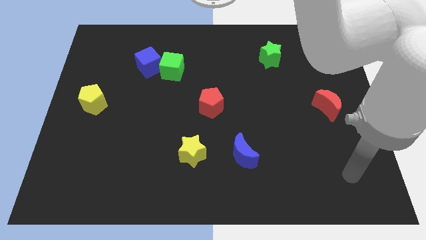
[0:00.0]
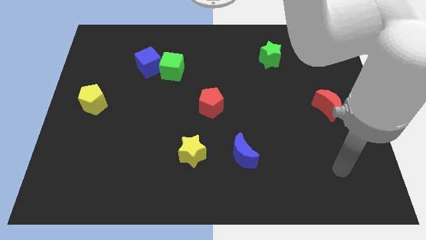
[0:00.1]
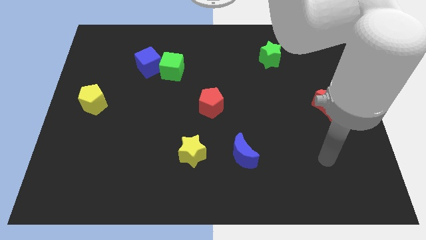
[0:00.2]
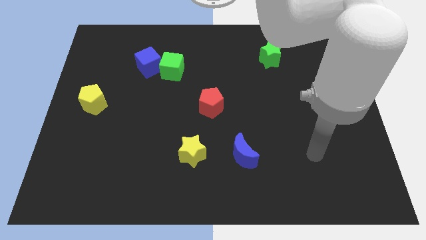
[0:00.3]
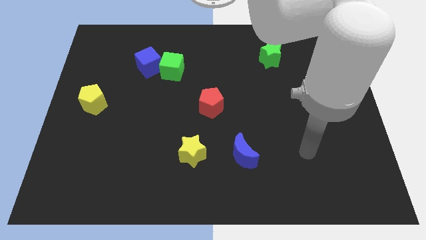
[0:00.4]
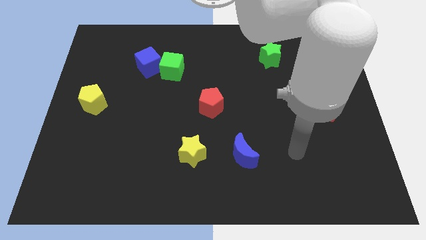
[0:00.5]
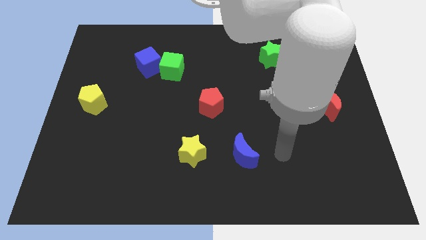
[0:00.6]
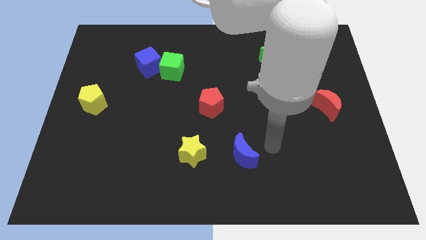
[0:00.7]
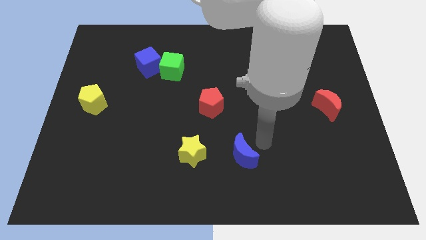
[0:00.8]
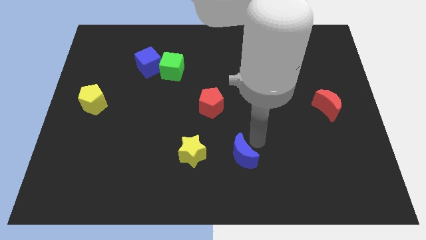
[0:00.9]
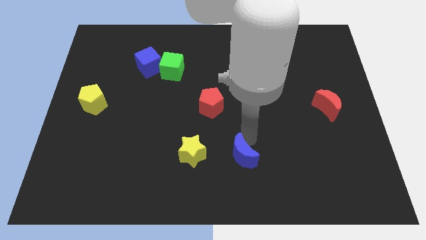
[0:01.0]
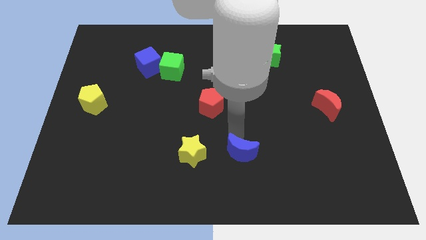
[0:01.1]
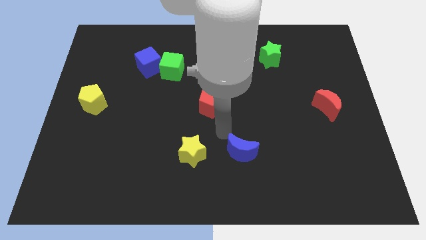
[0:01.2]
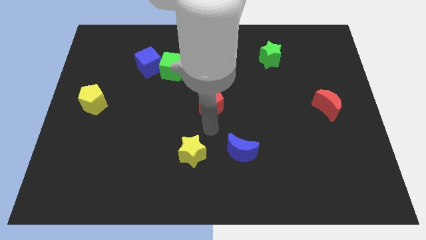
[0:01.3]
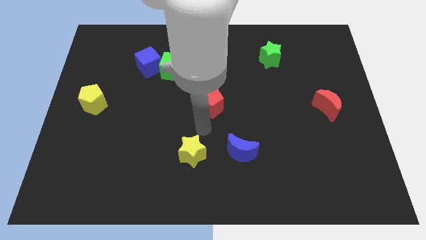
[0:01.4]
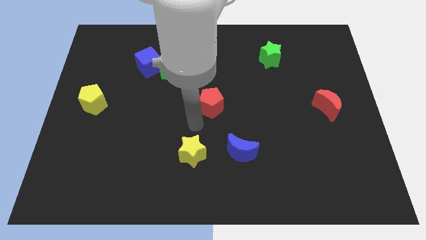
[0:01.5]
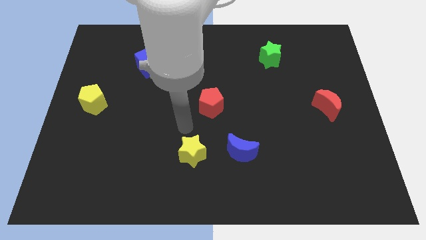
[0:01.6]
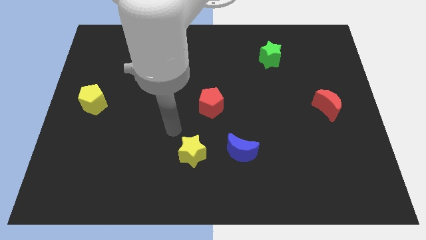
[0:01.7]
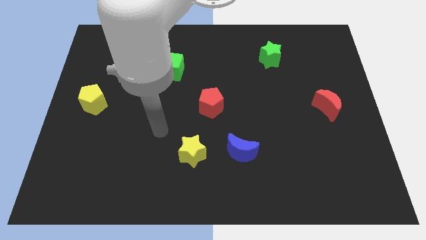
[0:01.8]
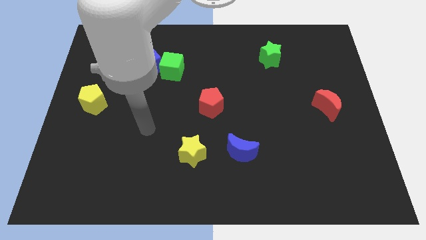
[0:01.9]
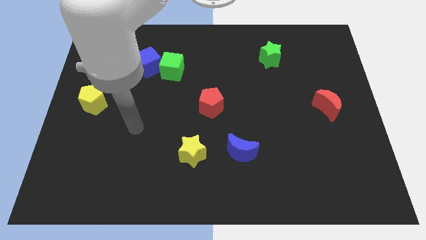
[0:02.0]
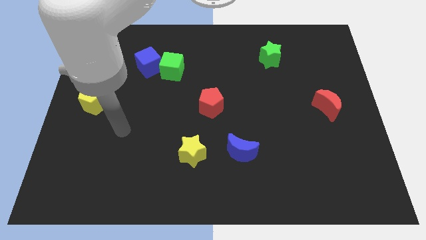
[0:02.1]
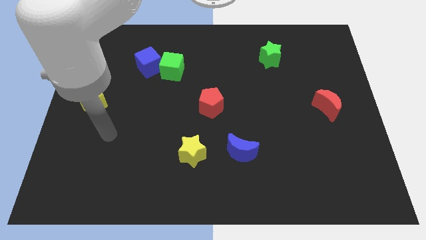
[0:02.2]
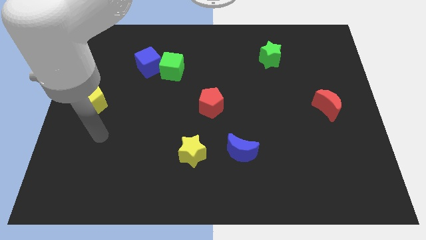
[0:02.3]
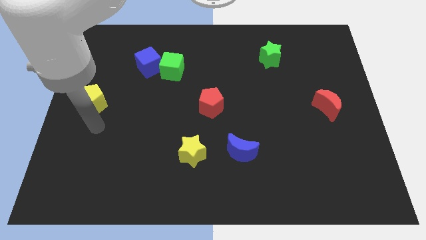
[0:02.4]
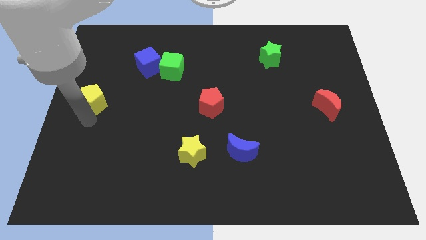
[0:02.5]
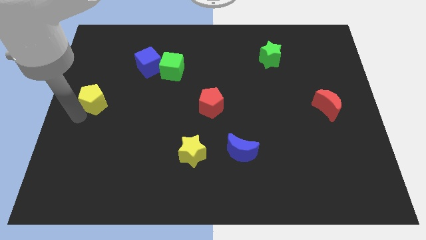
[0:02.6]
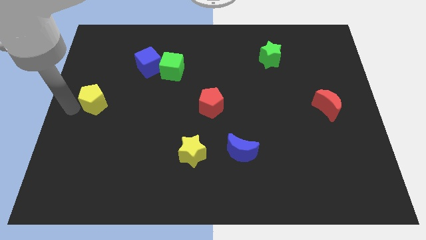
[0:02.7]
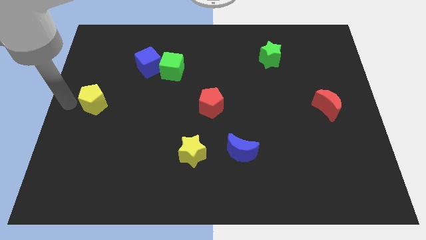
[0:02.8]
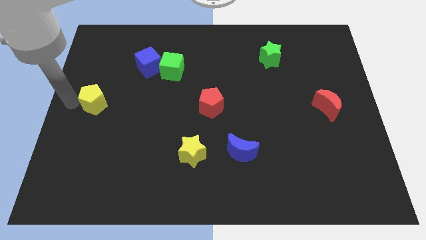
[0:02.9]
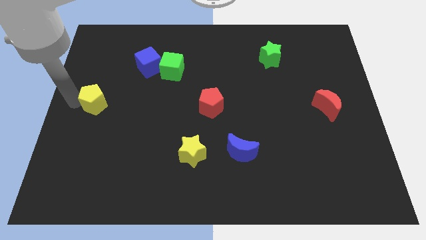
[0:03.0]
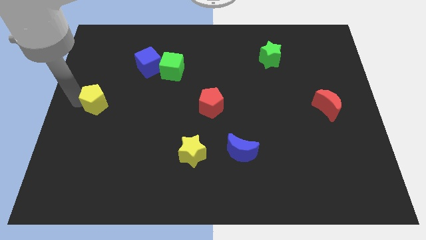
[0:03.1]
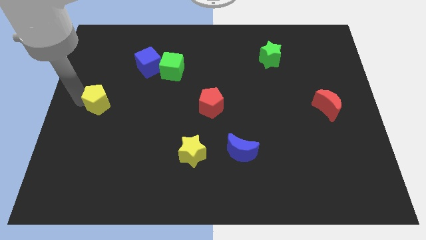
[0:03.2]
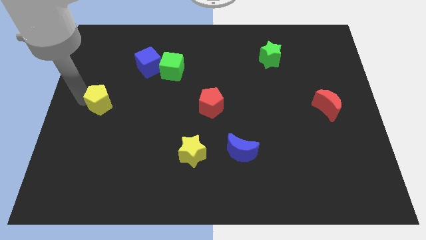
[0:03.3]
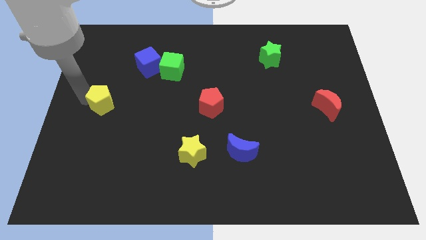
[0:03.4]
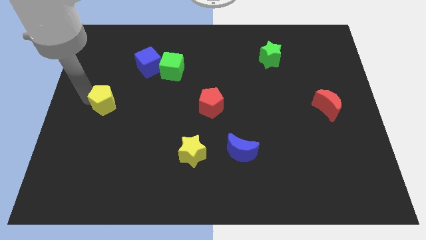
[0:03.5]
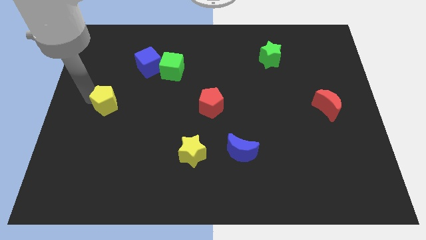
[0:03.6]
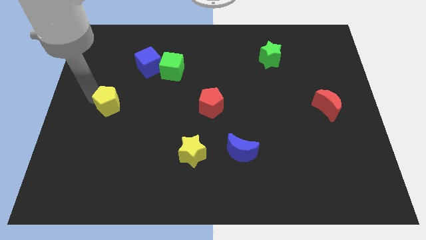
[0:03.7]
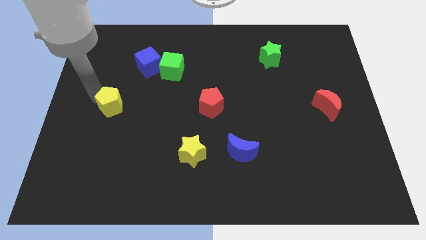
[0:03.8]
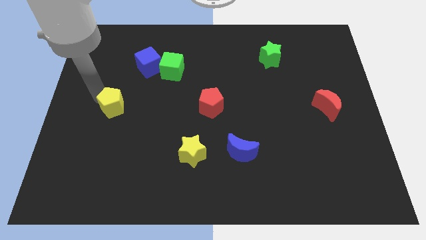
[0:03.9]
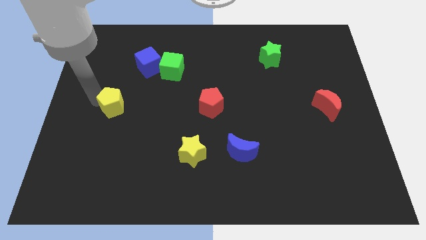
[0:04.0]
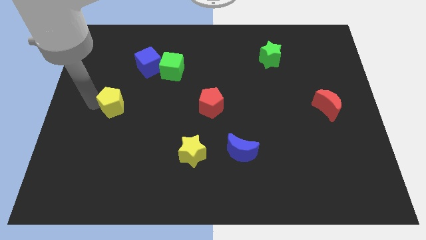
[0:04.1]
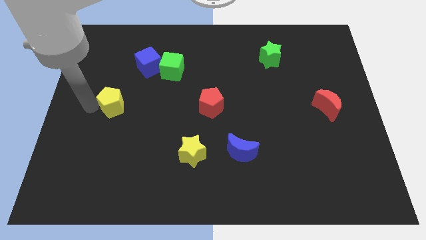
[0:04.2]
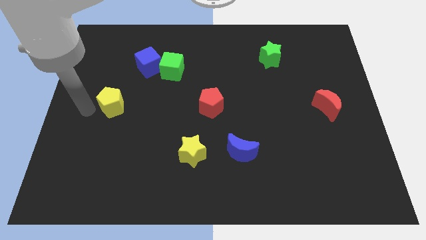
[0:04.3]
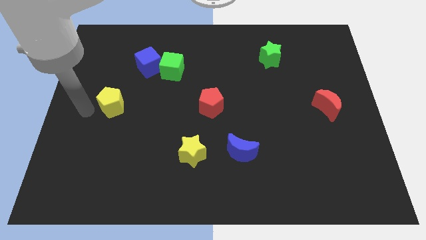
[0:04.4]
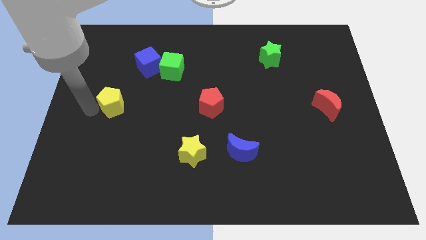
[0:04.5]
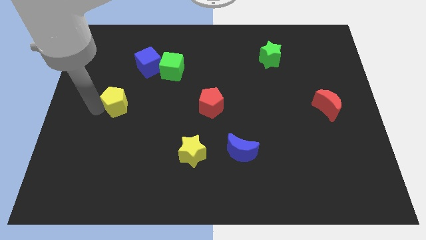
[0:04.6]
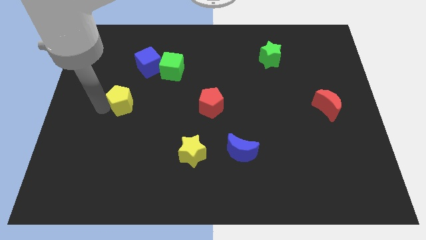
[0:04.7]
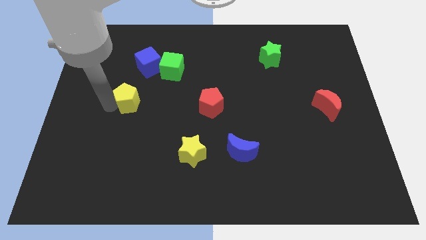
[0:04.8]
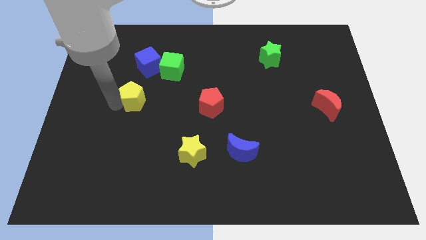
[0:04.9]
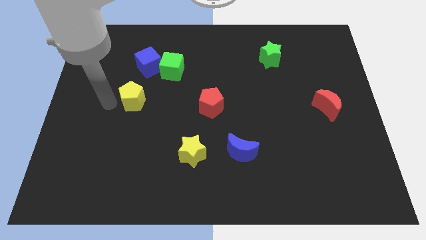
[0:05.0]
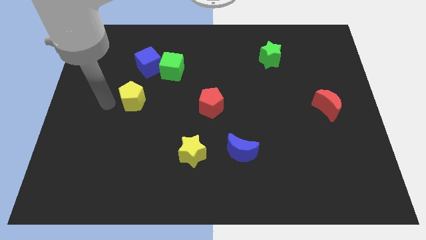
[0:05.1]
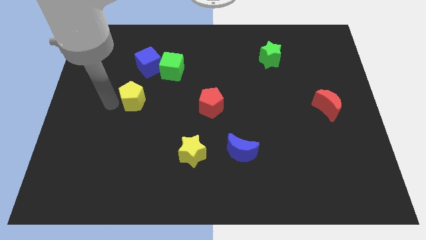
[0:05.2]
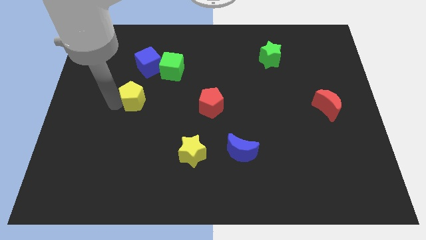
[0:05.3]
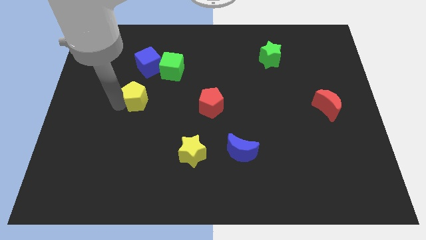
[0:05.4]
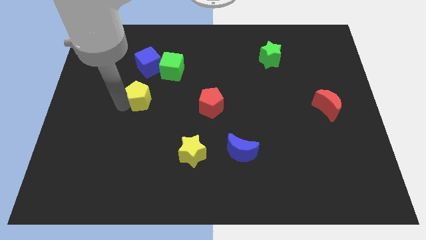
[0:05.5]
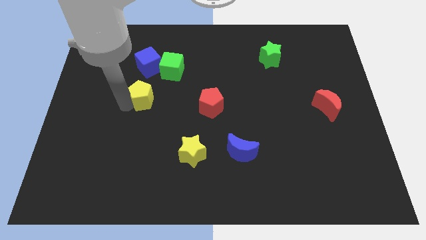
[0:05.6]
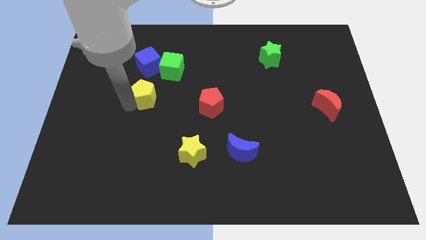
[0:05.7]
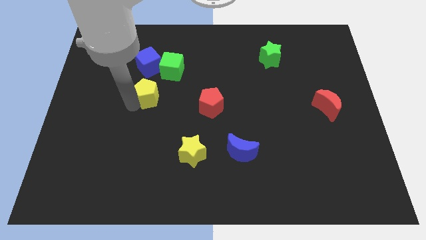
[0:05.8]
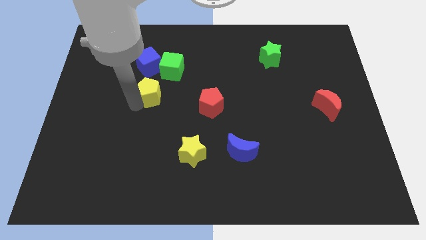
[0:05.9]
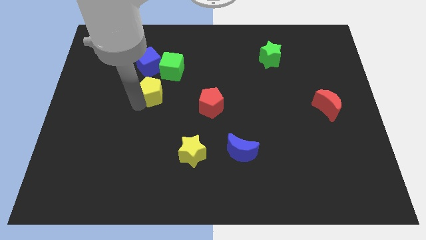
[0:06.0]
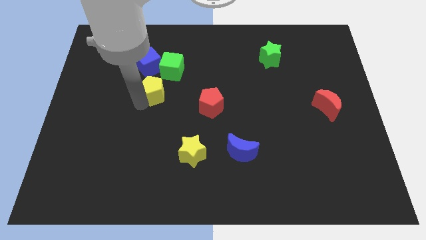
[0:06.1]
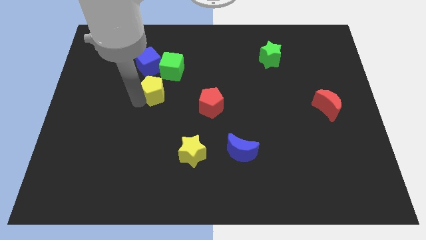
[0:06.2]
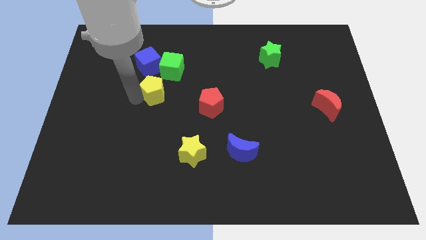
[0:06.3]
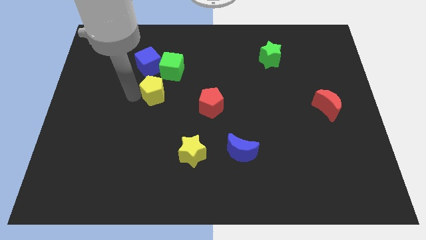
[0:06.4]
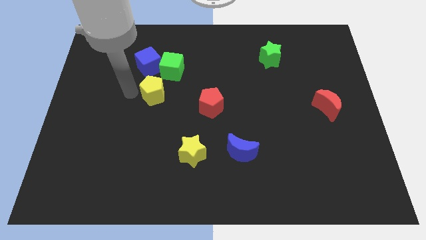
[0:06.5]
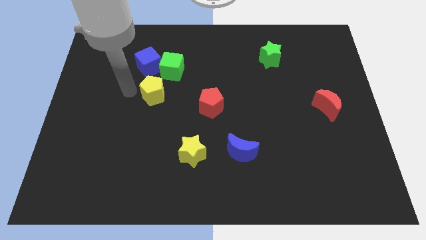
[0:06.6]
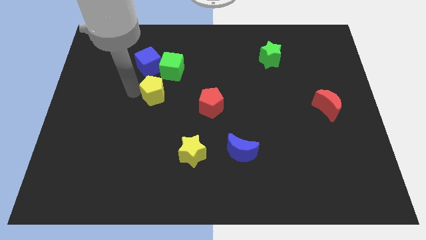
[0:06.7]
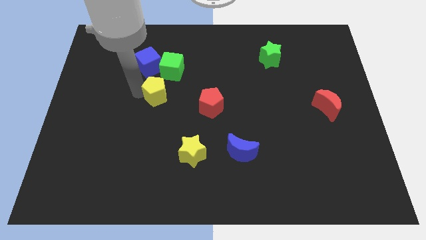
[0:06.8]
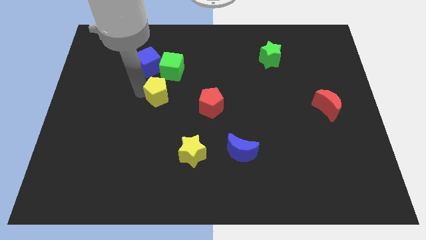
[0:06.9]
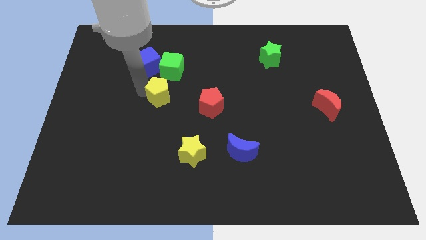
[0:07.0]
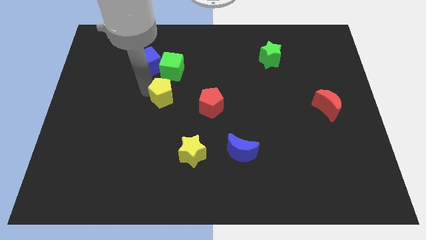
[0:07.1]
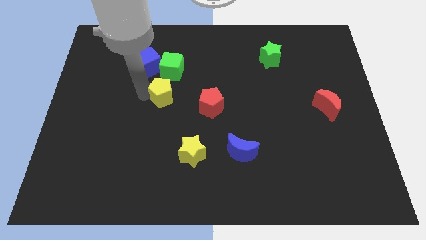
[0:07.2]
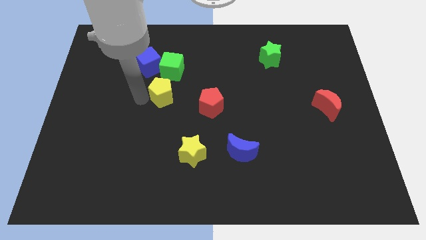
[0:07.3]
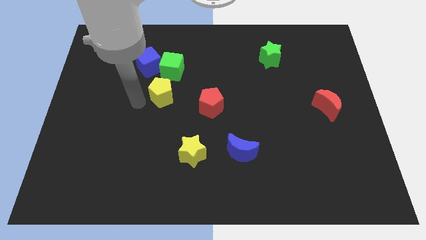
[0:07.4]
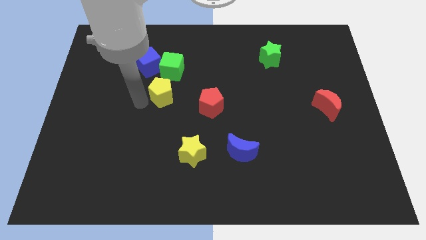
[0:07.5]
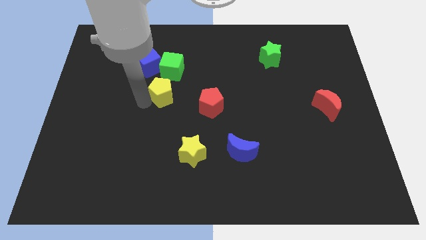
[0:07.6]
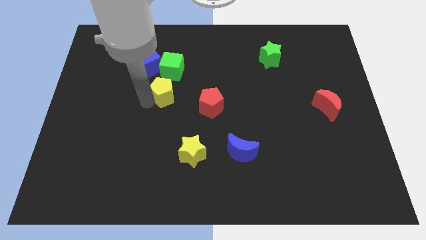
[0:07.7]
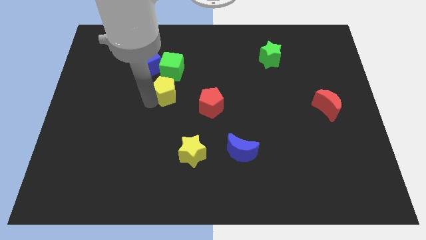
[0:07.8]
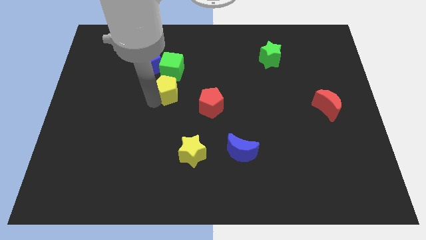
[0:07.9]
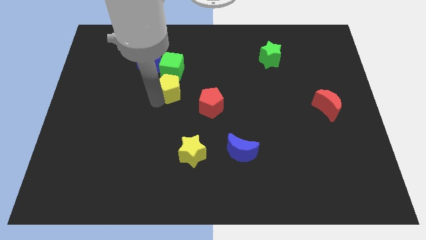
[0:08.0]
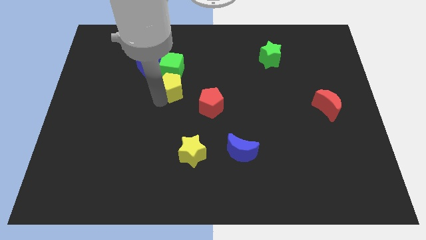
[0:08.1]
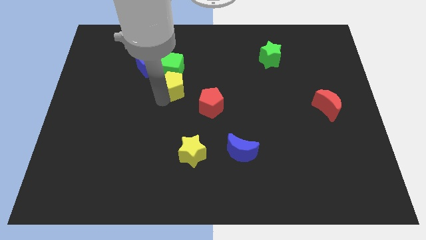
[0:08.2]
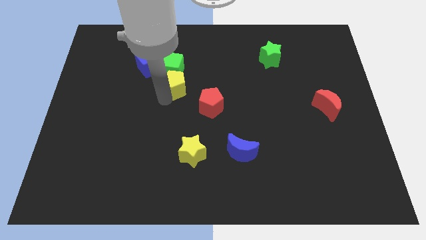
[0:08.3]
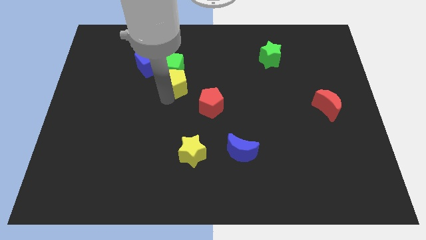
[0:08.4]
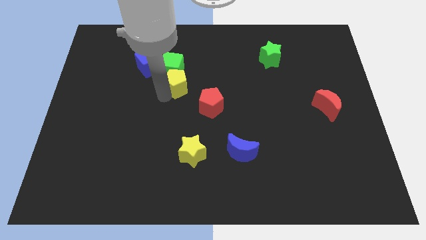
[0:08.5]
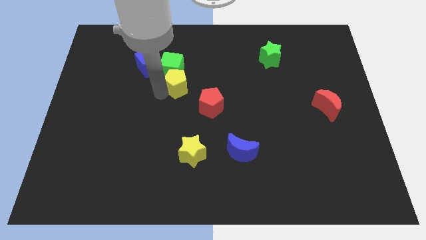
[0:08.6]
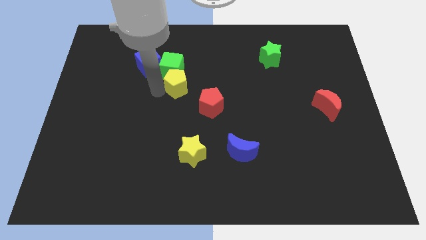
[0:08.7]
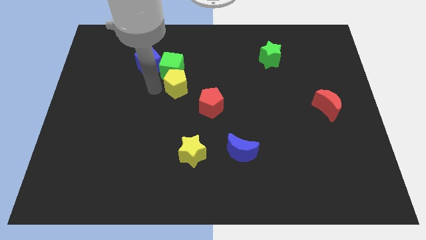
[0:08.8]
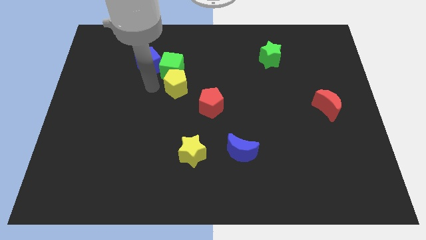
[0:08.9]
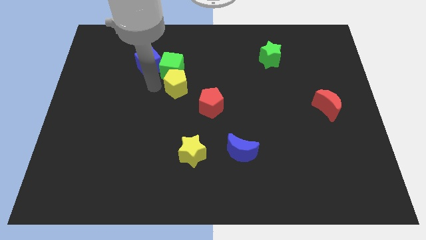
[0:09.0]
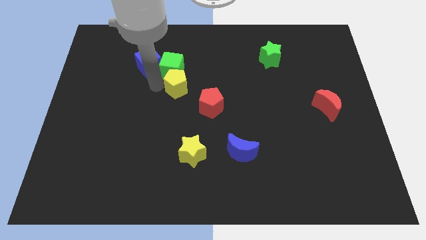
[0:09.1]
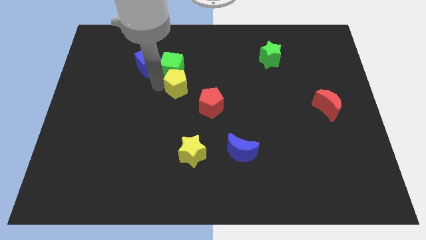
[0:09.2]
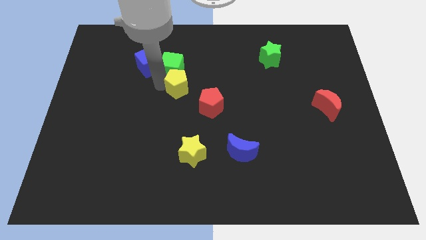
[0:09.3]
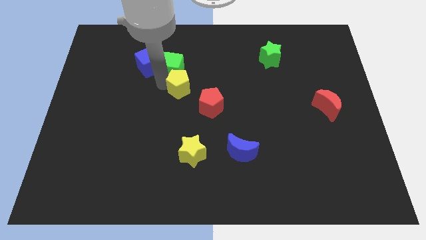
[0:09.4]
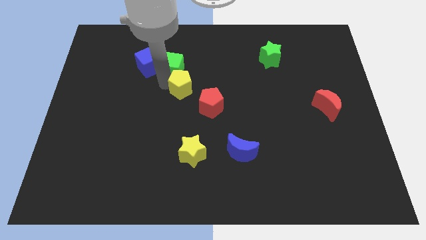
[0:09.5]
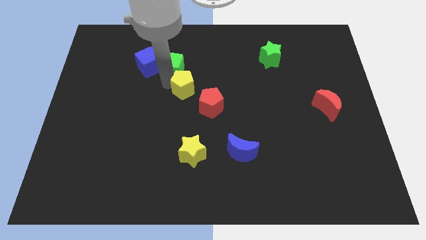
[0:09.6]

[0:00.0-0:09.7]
push the yellow pentagon to the right
